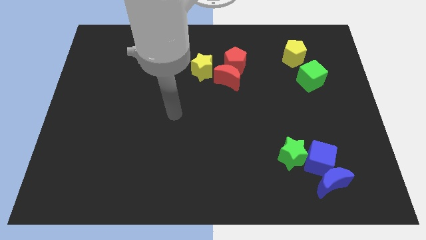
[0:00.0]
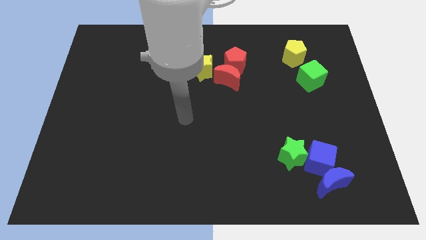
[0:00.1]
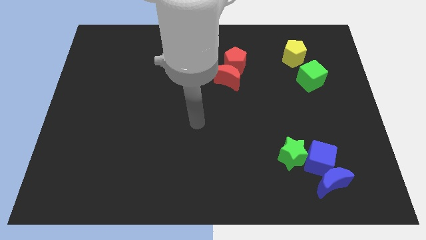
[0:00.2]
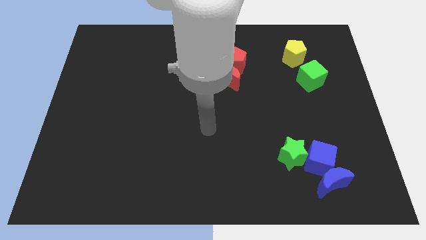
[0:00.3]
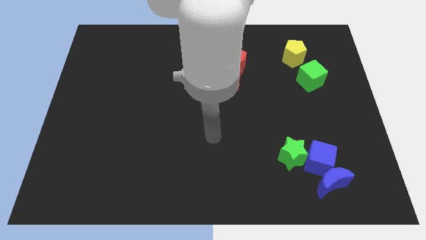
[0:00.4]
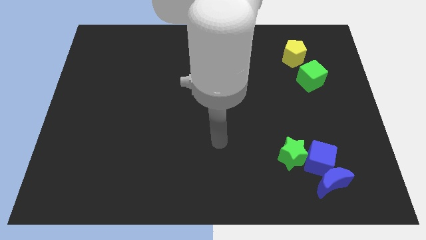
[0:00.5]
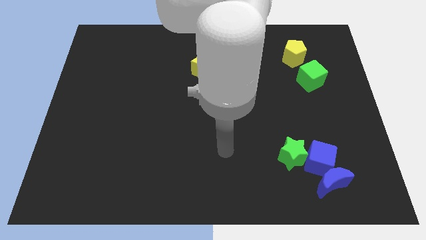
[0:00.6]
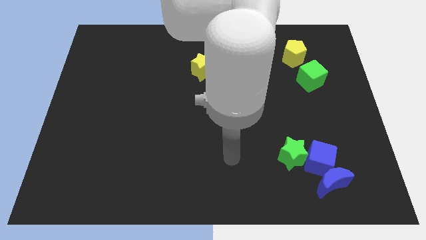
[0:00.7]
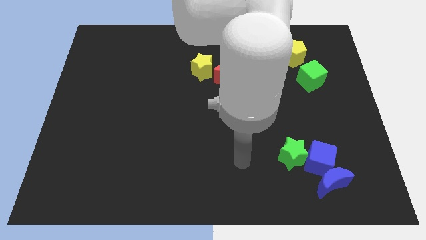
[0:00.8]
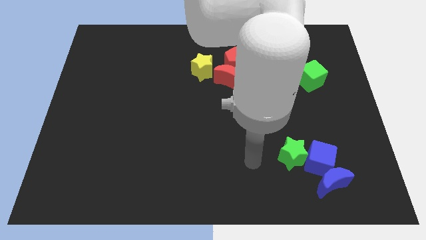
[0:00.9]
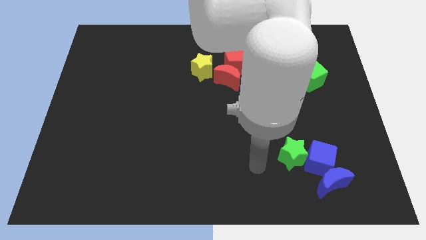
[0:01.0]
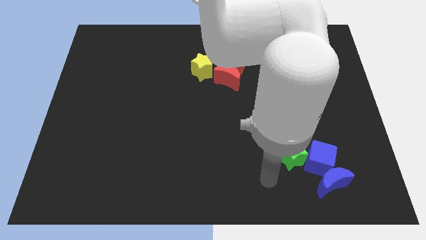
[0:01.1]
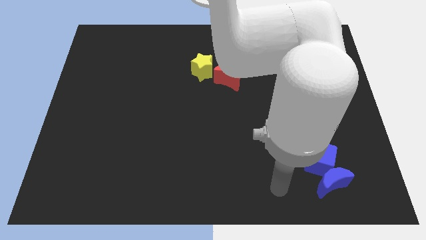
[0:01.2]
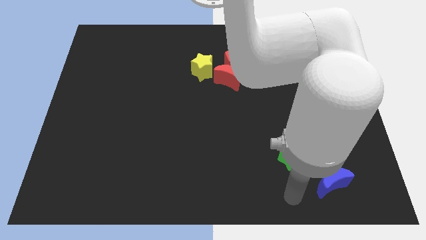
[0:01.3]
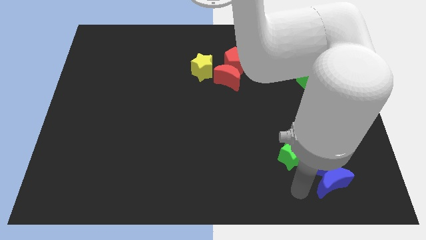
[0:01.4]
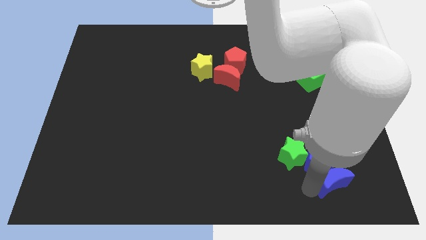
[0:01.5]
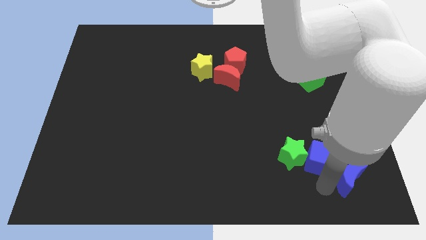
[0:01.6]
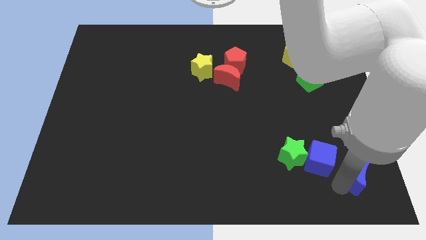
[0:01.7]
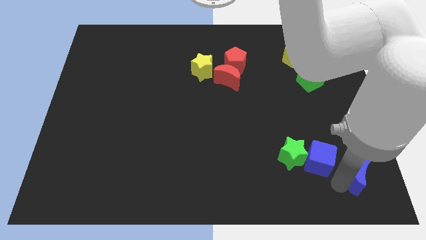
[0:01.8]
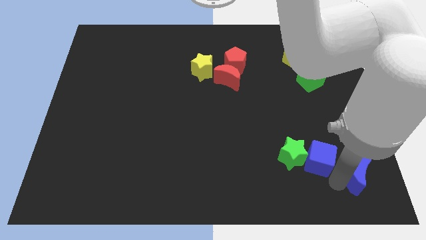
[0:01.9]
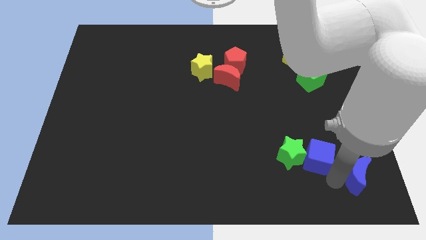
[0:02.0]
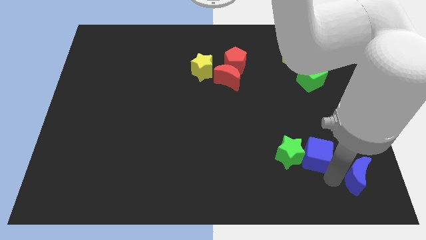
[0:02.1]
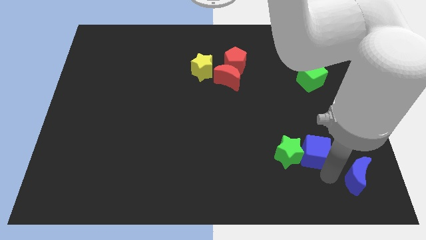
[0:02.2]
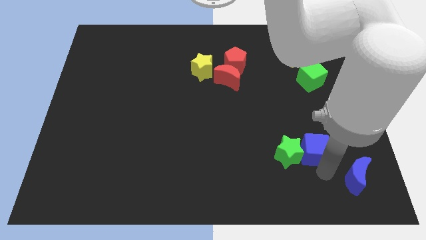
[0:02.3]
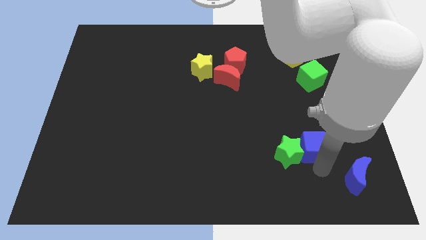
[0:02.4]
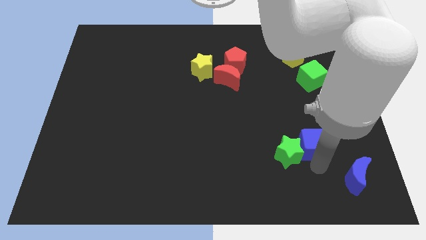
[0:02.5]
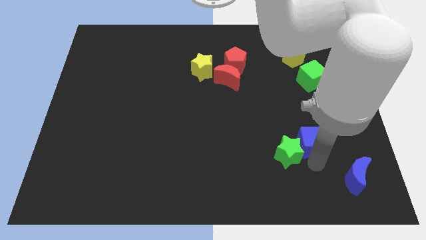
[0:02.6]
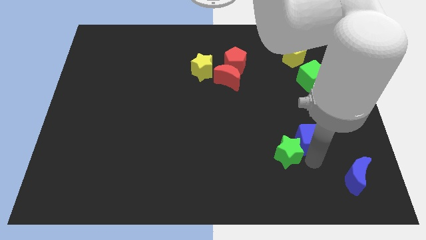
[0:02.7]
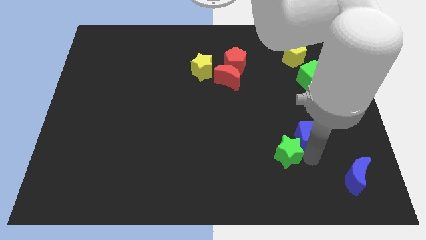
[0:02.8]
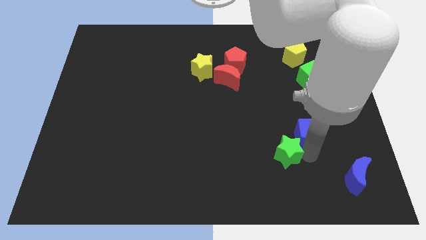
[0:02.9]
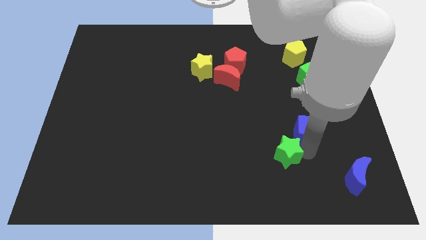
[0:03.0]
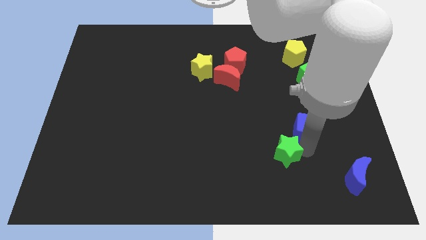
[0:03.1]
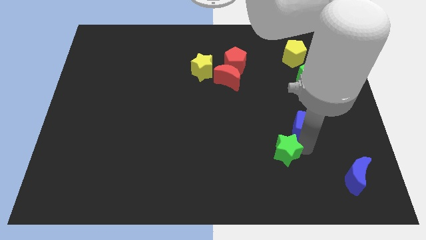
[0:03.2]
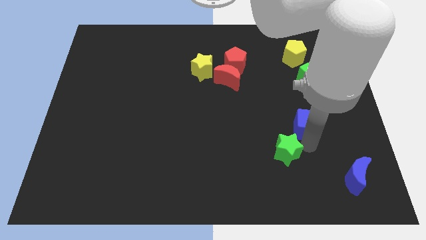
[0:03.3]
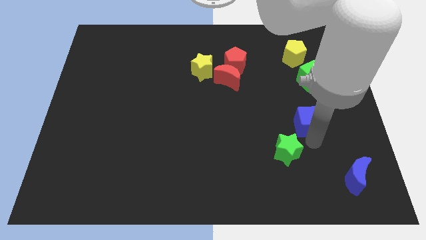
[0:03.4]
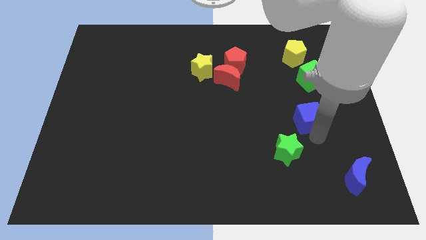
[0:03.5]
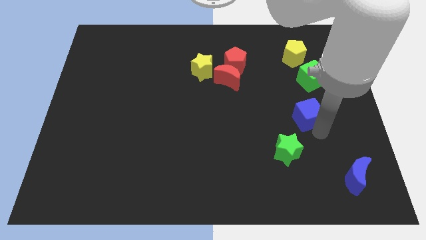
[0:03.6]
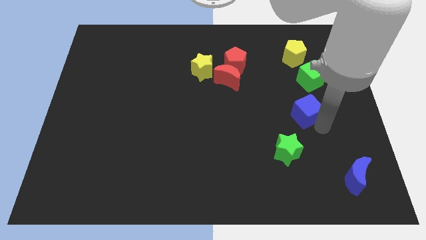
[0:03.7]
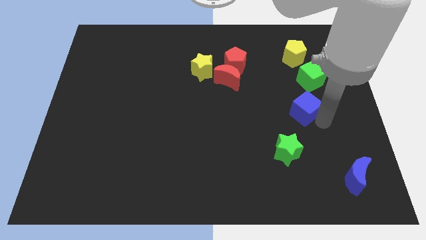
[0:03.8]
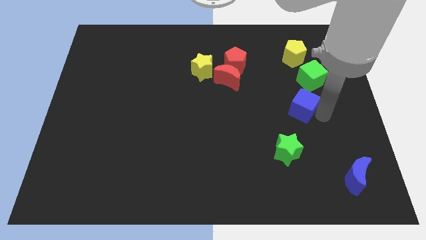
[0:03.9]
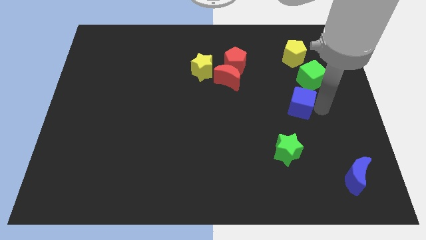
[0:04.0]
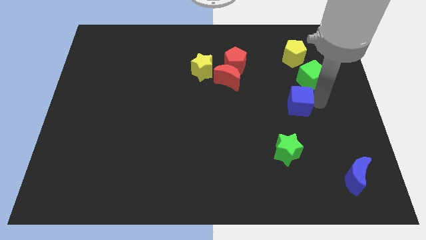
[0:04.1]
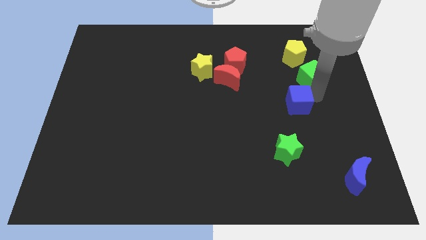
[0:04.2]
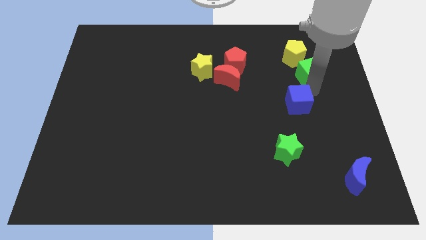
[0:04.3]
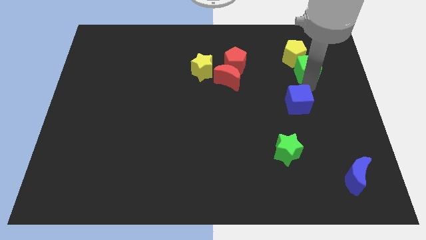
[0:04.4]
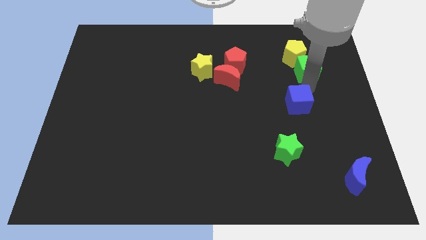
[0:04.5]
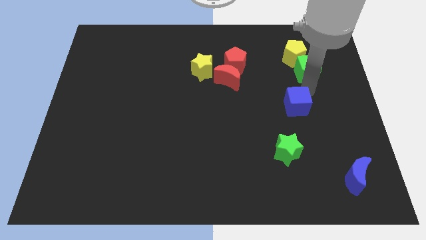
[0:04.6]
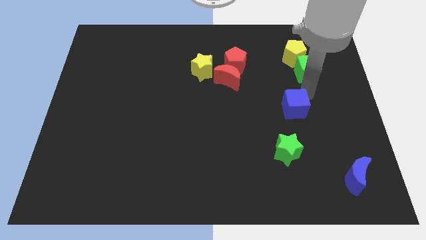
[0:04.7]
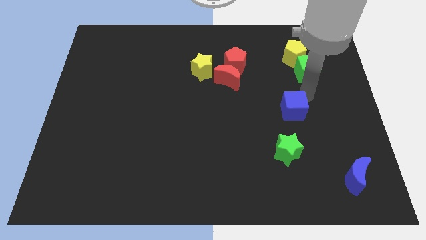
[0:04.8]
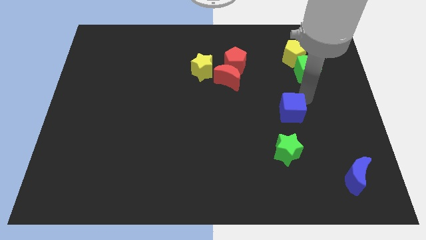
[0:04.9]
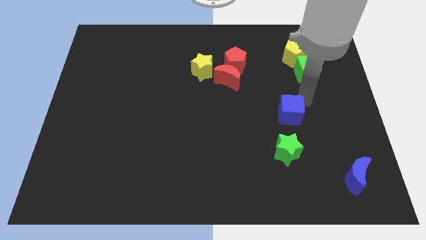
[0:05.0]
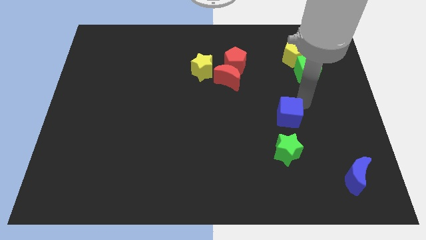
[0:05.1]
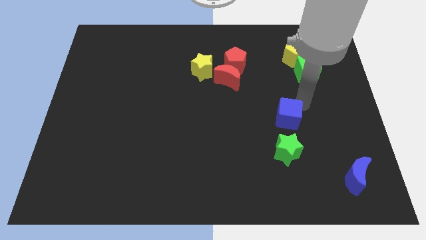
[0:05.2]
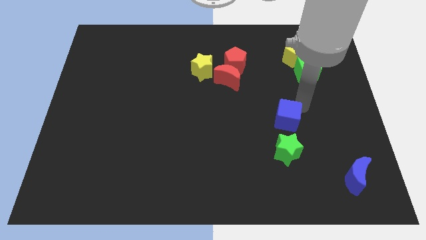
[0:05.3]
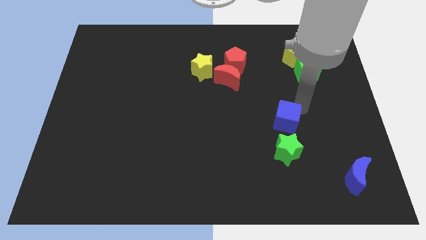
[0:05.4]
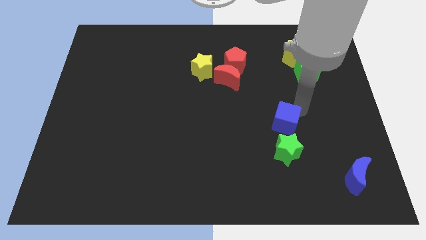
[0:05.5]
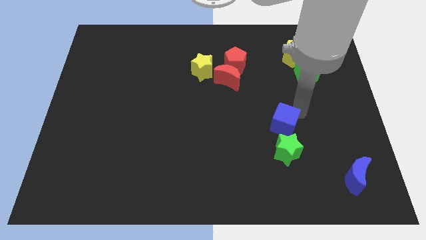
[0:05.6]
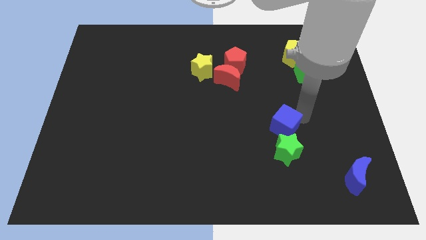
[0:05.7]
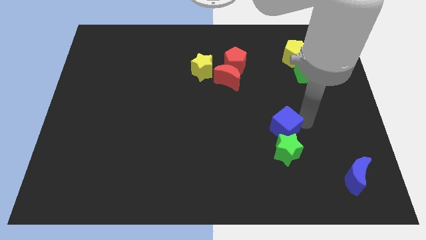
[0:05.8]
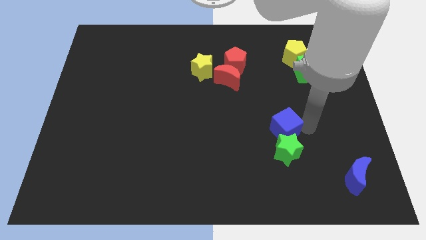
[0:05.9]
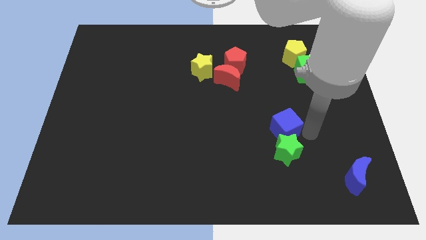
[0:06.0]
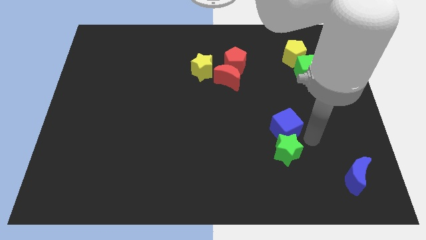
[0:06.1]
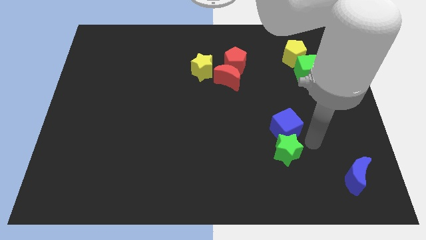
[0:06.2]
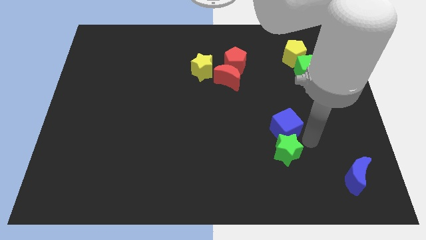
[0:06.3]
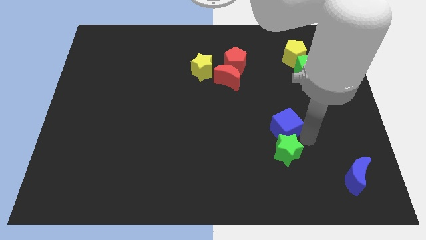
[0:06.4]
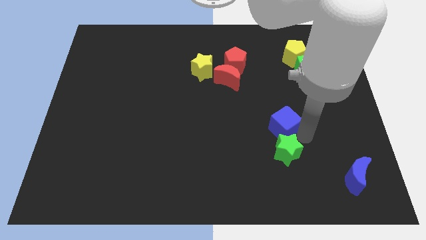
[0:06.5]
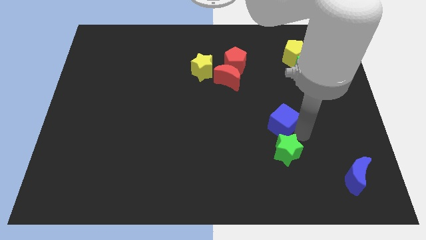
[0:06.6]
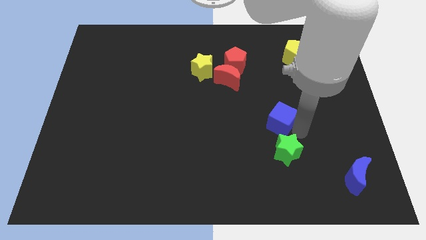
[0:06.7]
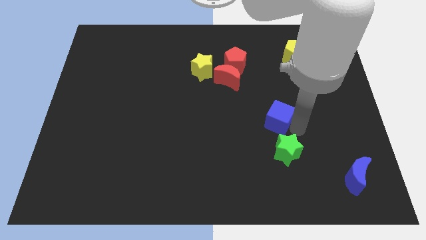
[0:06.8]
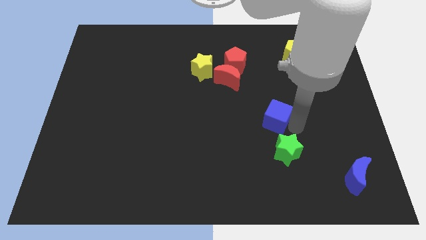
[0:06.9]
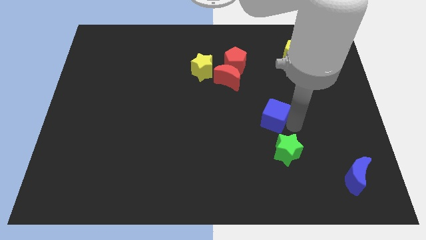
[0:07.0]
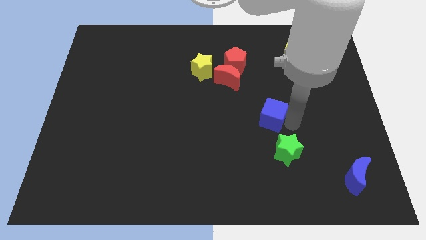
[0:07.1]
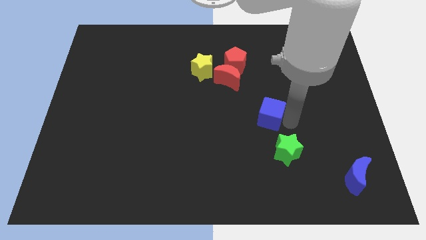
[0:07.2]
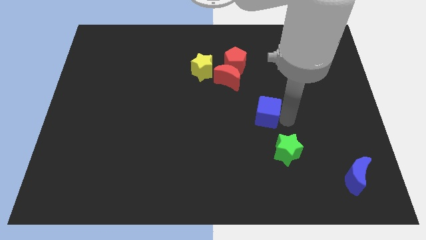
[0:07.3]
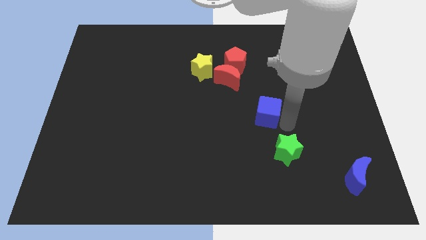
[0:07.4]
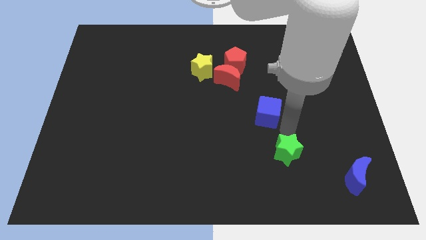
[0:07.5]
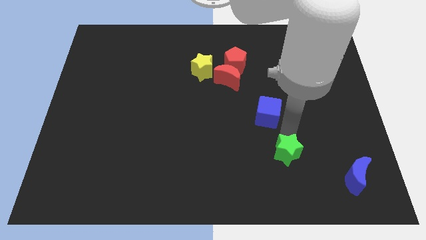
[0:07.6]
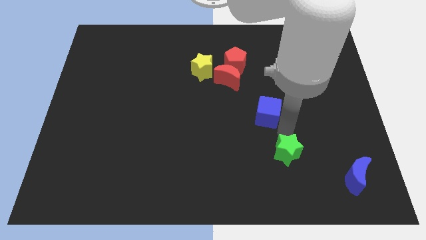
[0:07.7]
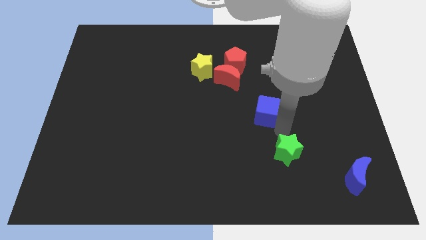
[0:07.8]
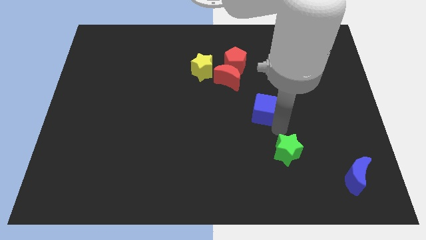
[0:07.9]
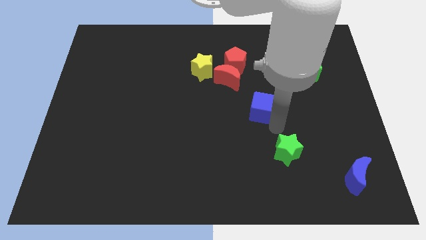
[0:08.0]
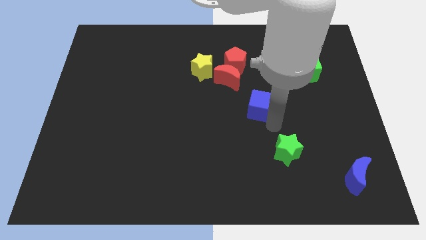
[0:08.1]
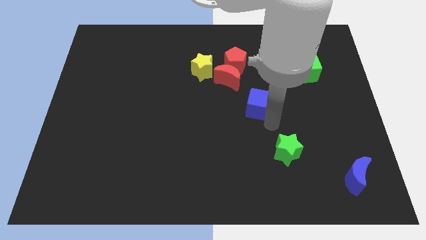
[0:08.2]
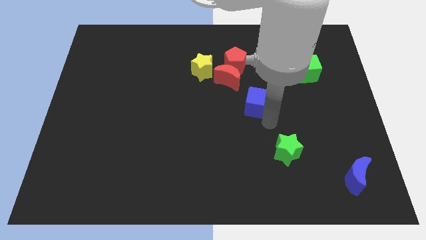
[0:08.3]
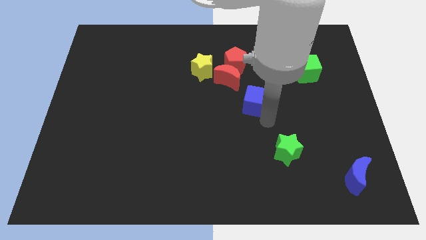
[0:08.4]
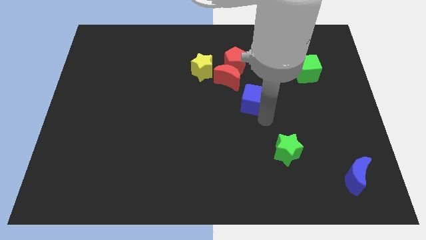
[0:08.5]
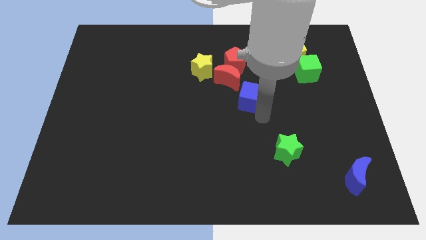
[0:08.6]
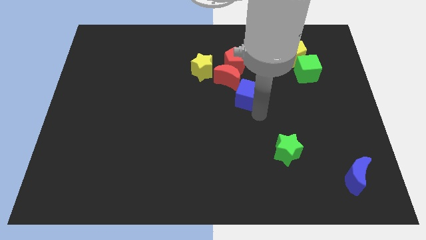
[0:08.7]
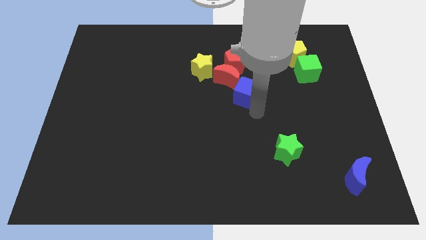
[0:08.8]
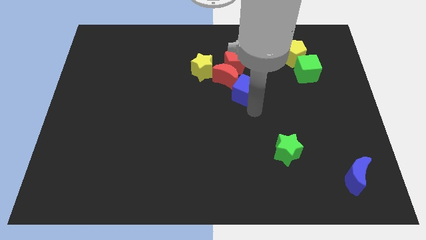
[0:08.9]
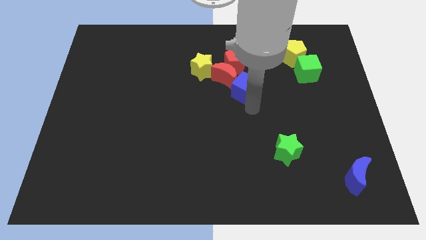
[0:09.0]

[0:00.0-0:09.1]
slide the blue cube to the red moon
